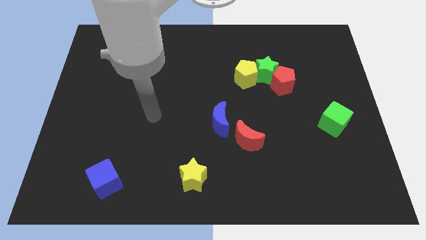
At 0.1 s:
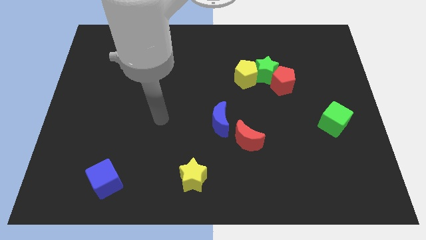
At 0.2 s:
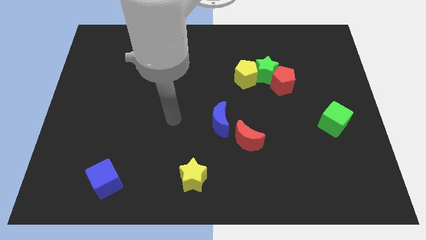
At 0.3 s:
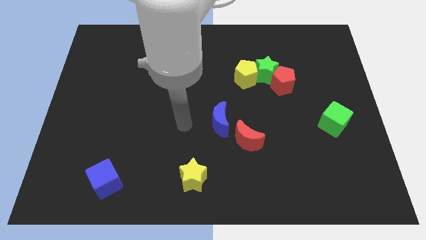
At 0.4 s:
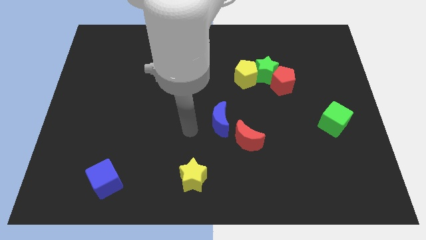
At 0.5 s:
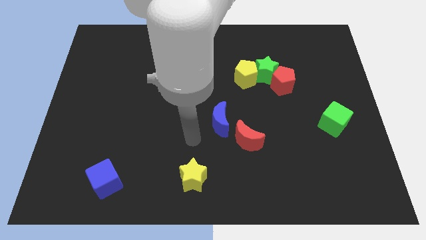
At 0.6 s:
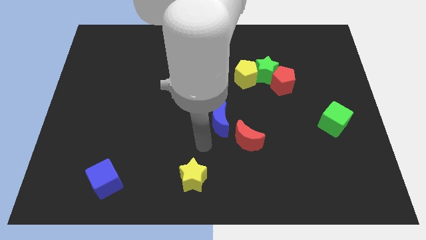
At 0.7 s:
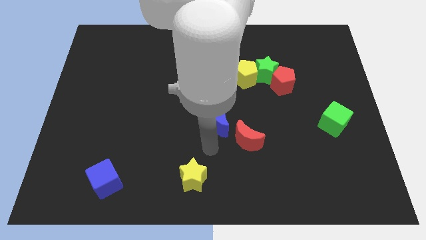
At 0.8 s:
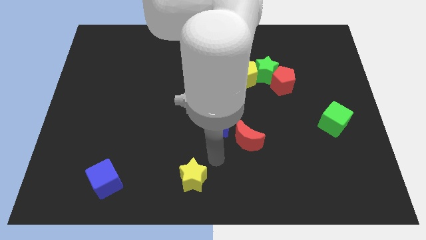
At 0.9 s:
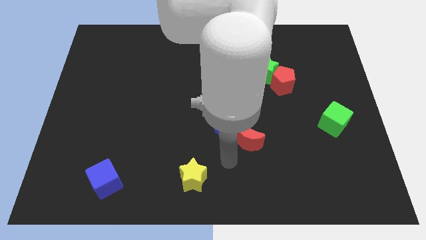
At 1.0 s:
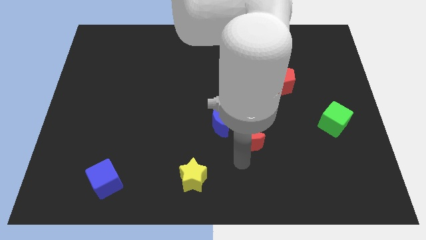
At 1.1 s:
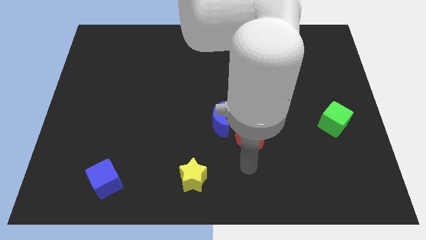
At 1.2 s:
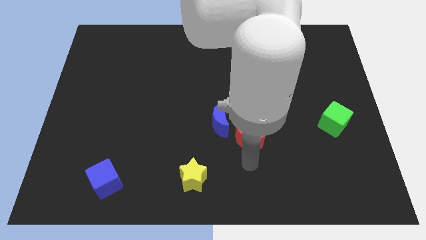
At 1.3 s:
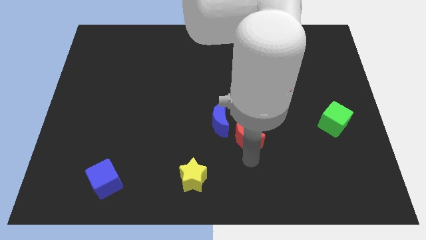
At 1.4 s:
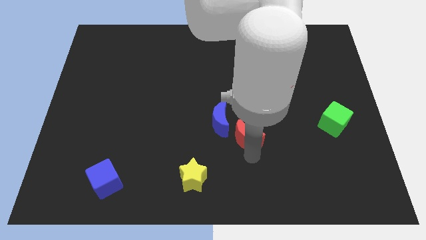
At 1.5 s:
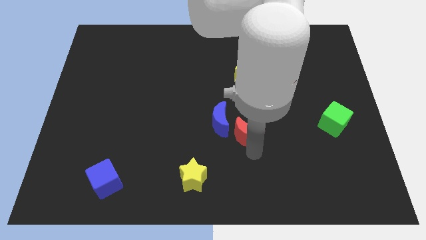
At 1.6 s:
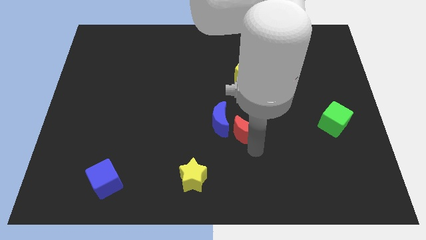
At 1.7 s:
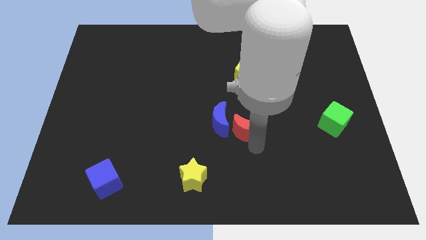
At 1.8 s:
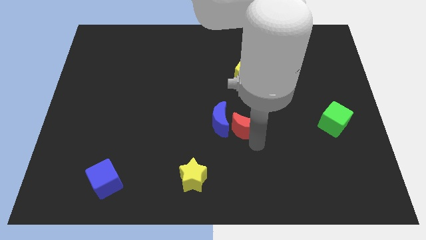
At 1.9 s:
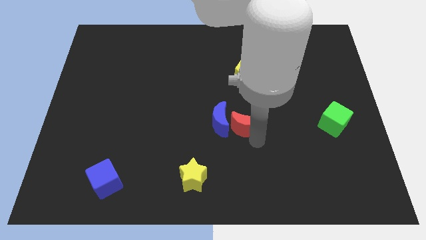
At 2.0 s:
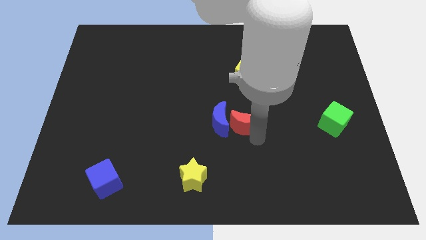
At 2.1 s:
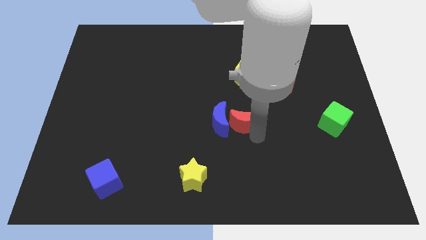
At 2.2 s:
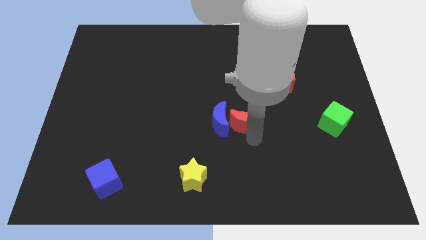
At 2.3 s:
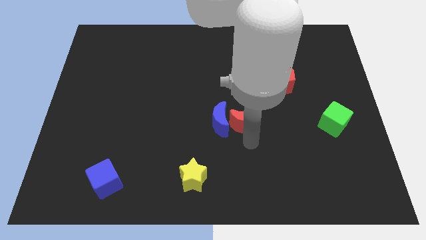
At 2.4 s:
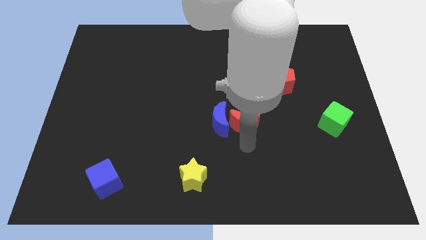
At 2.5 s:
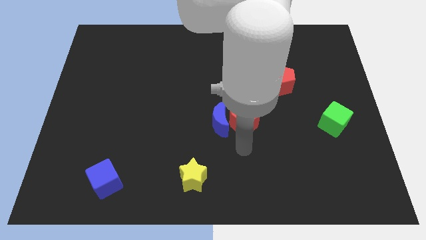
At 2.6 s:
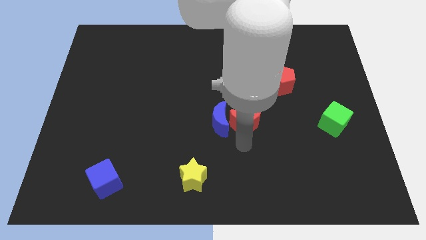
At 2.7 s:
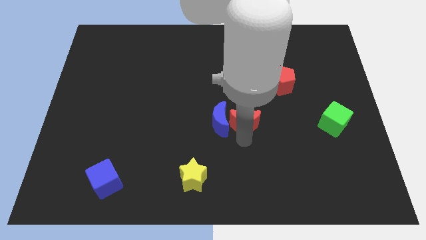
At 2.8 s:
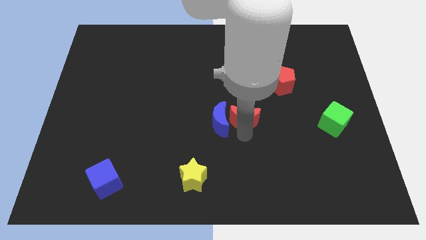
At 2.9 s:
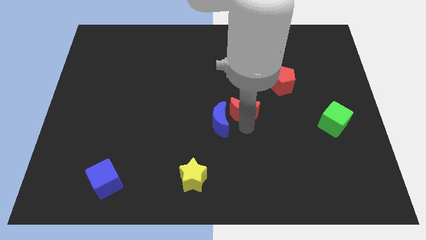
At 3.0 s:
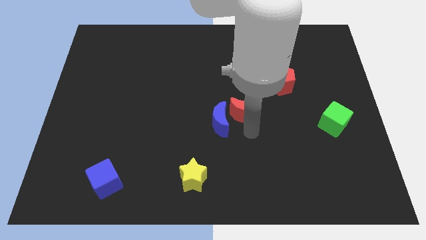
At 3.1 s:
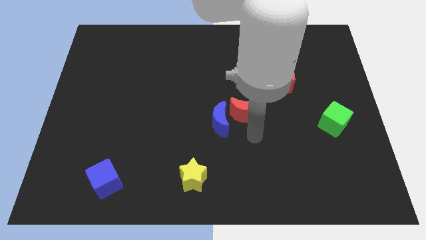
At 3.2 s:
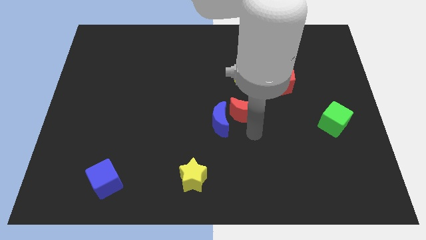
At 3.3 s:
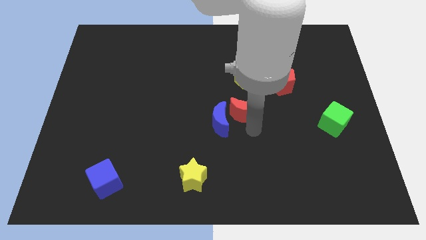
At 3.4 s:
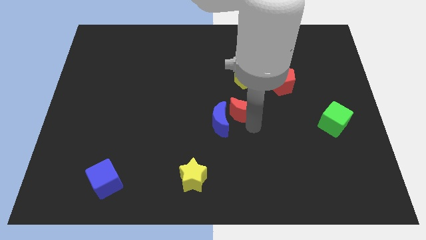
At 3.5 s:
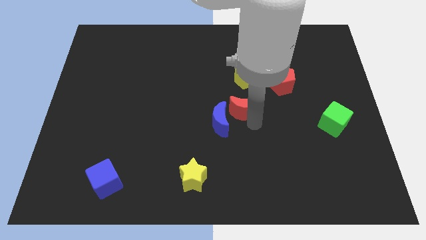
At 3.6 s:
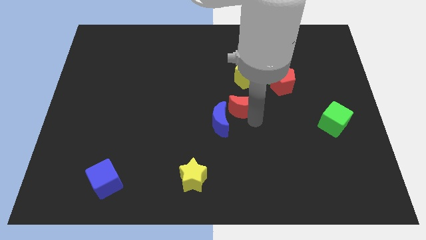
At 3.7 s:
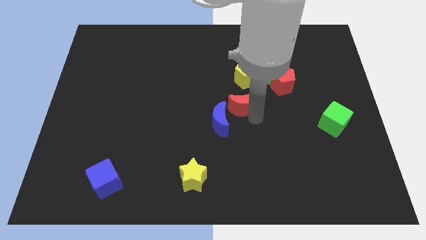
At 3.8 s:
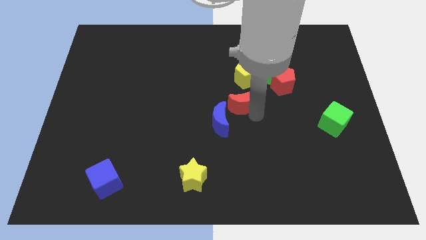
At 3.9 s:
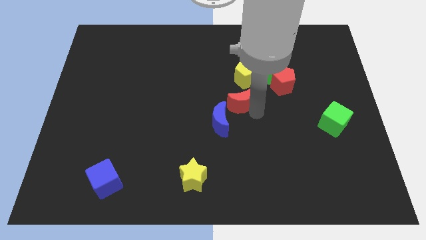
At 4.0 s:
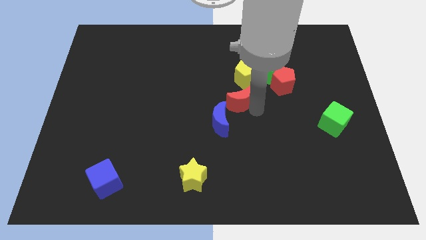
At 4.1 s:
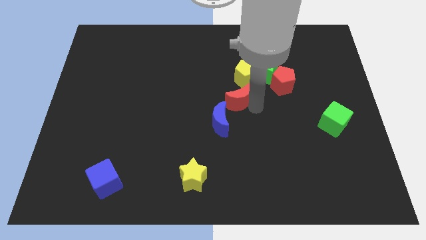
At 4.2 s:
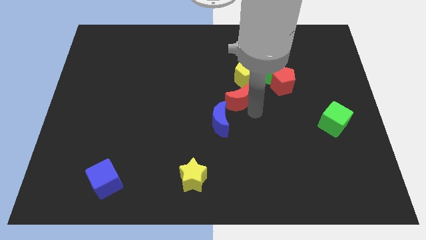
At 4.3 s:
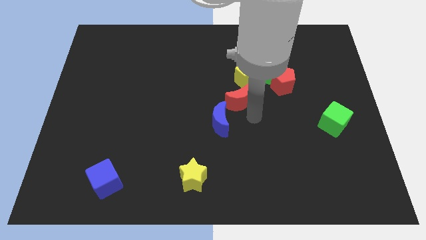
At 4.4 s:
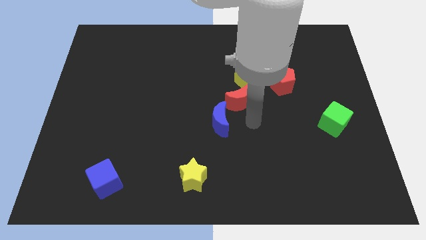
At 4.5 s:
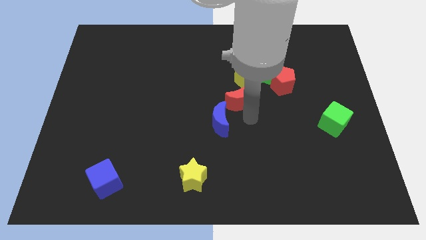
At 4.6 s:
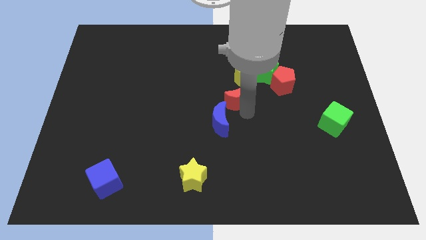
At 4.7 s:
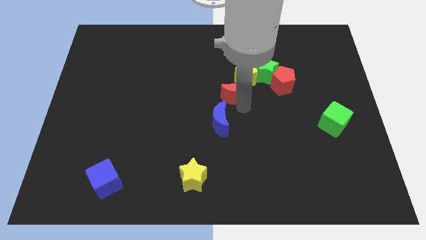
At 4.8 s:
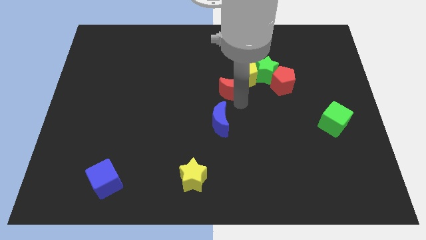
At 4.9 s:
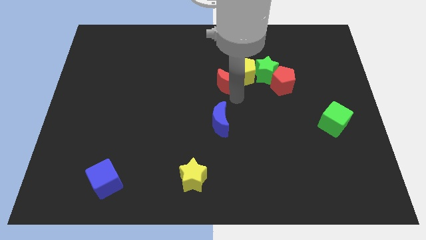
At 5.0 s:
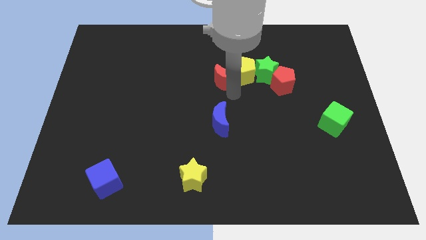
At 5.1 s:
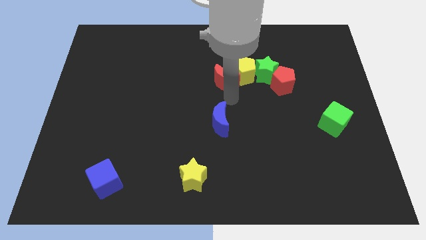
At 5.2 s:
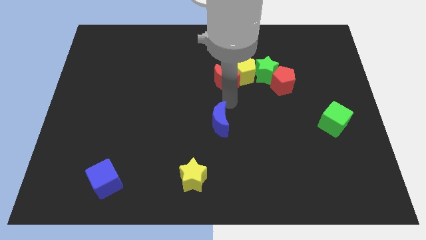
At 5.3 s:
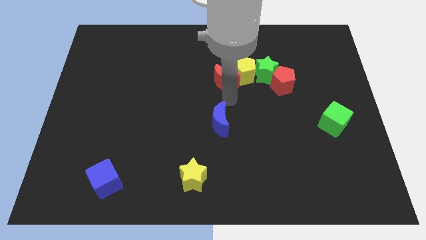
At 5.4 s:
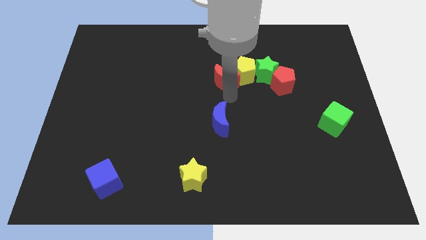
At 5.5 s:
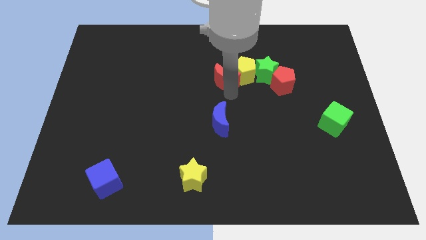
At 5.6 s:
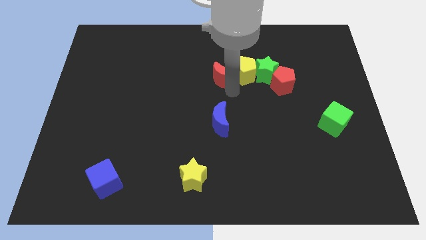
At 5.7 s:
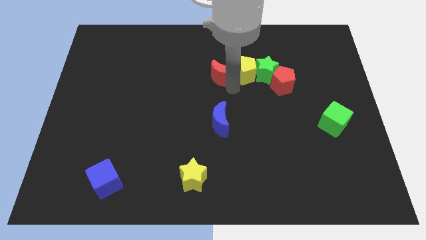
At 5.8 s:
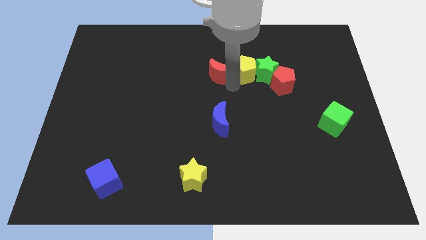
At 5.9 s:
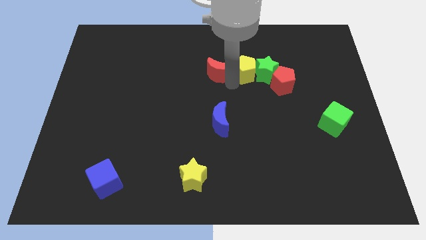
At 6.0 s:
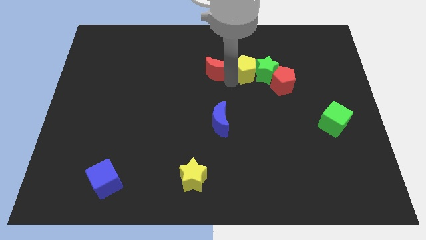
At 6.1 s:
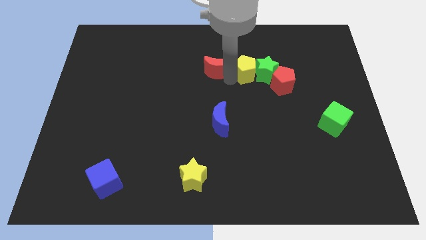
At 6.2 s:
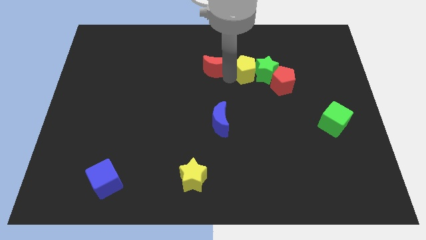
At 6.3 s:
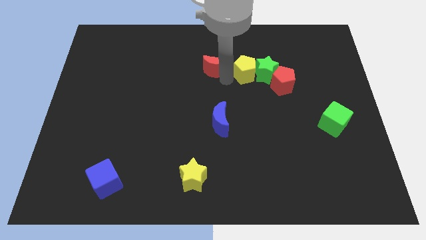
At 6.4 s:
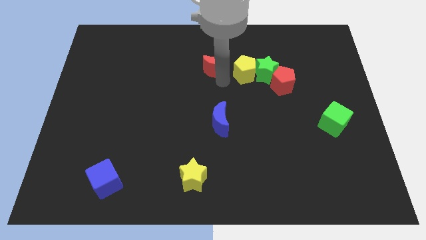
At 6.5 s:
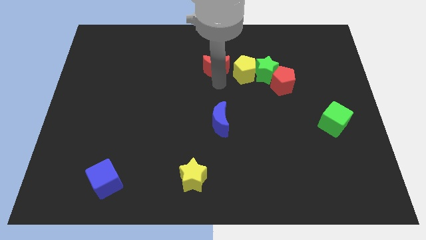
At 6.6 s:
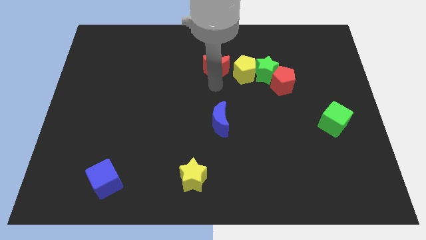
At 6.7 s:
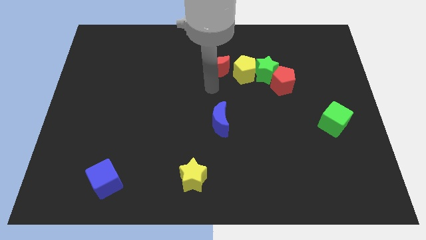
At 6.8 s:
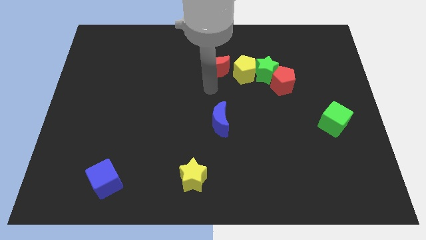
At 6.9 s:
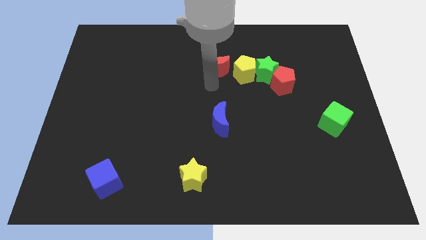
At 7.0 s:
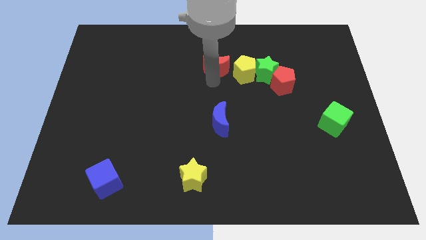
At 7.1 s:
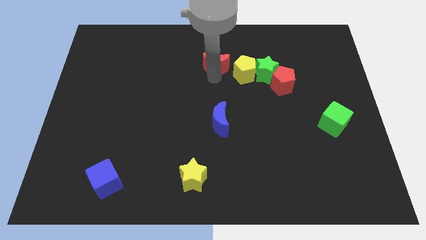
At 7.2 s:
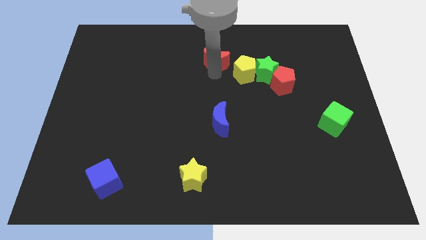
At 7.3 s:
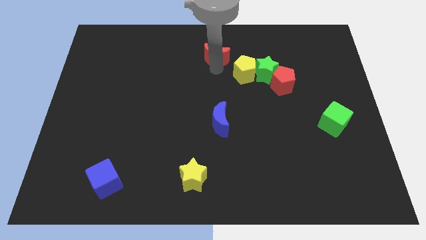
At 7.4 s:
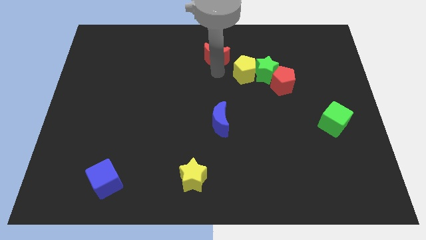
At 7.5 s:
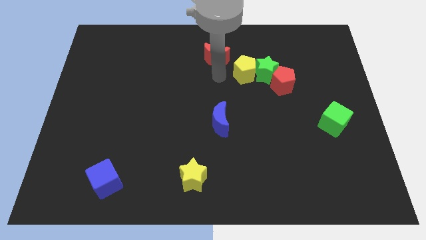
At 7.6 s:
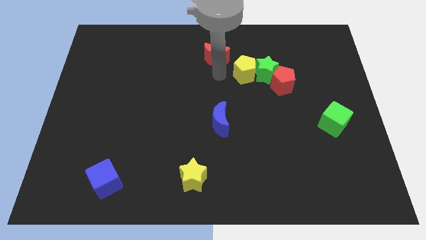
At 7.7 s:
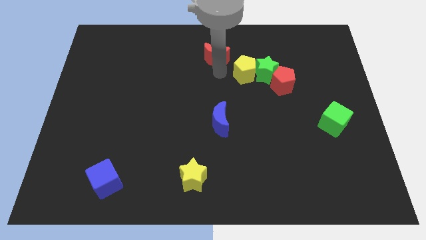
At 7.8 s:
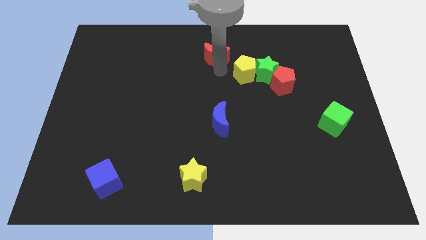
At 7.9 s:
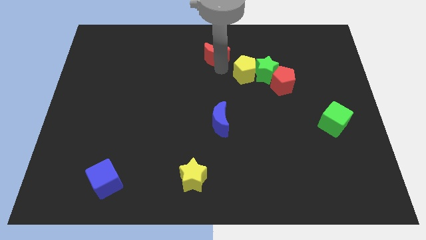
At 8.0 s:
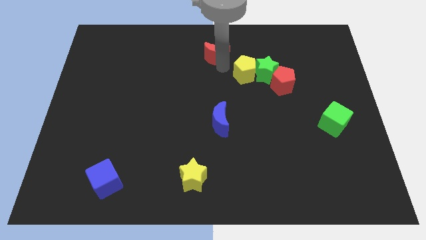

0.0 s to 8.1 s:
put the red moon to the towards your base
